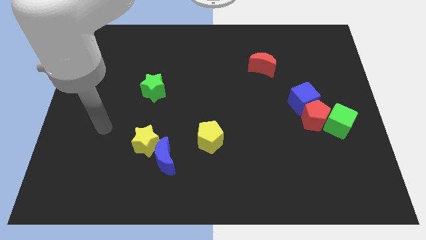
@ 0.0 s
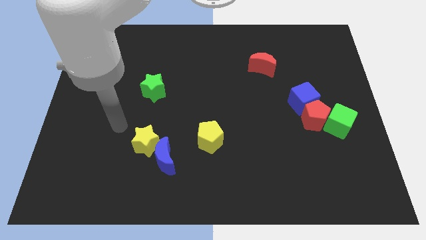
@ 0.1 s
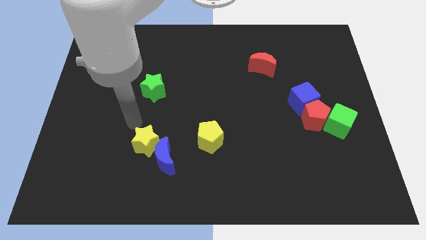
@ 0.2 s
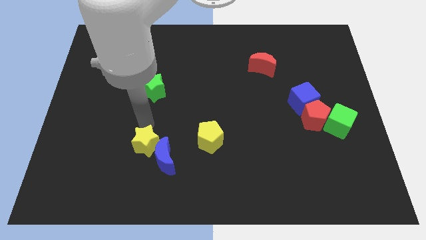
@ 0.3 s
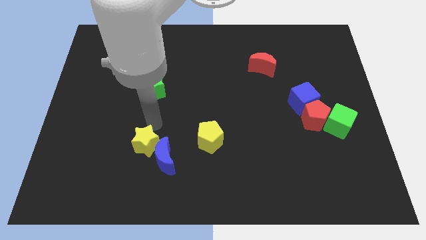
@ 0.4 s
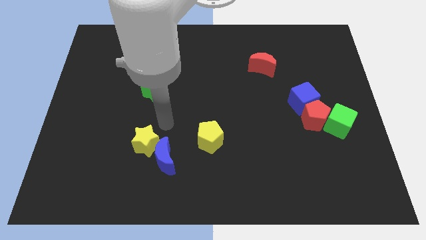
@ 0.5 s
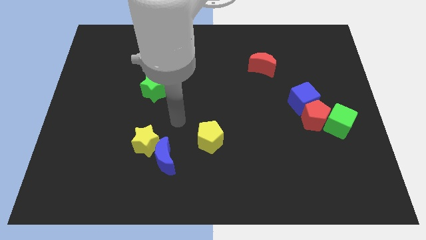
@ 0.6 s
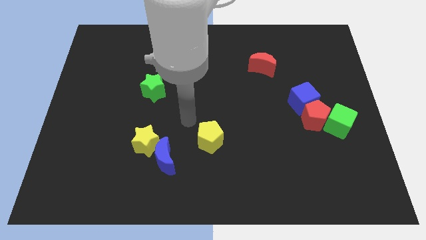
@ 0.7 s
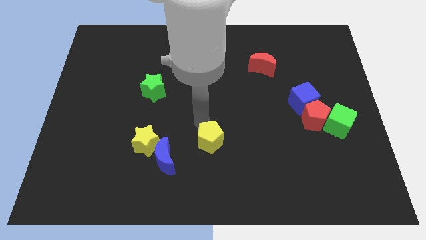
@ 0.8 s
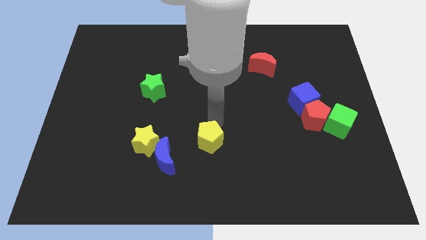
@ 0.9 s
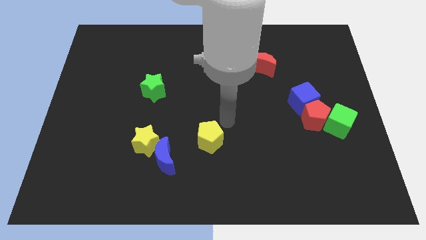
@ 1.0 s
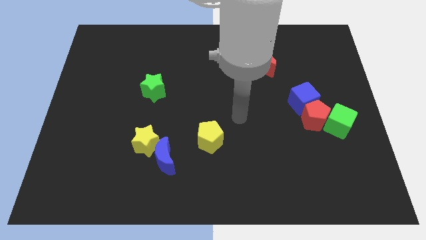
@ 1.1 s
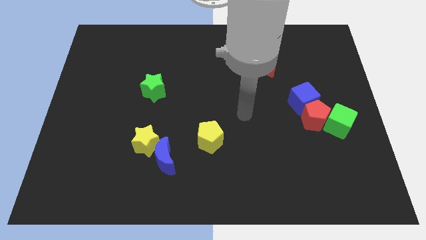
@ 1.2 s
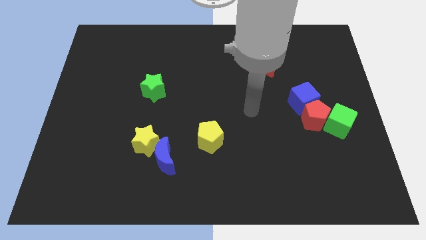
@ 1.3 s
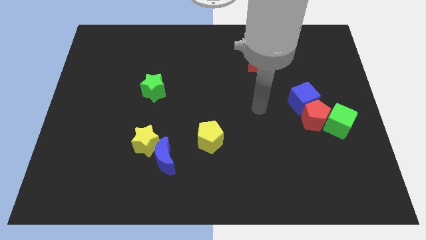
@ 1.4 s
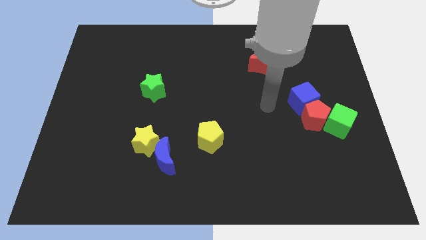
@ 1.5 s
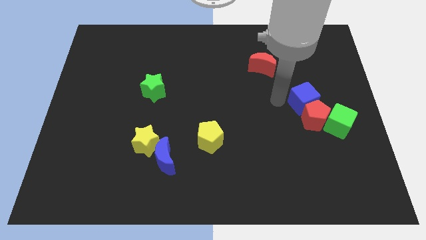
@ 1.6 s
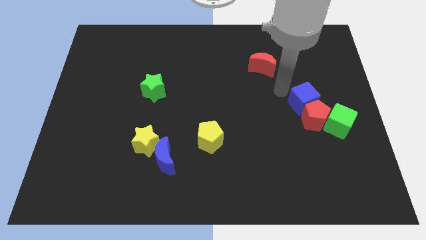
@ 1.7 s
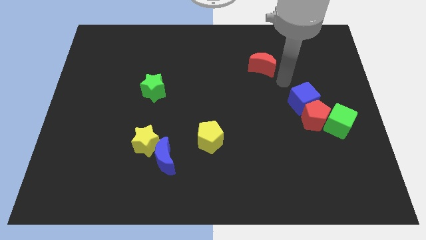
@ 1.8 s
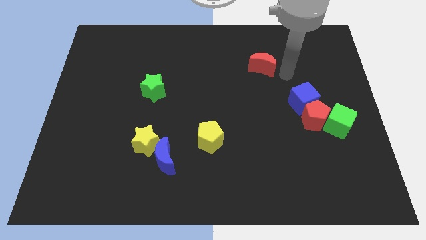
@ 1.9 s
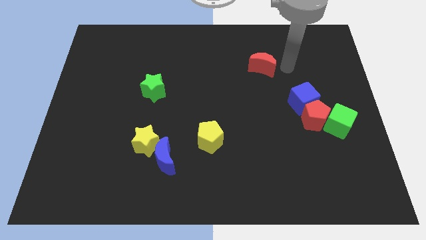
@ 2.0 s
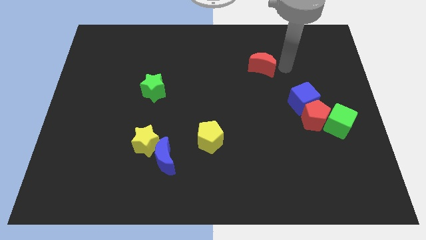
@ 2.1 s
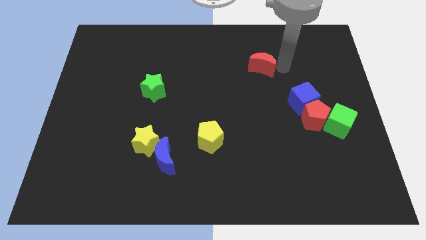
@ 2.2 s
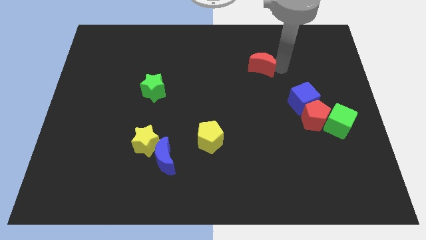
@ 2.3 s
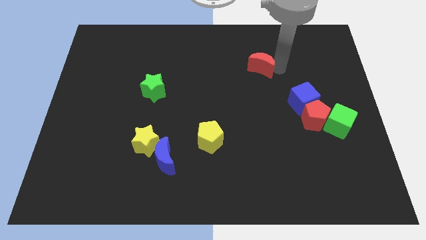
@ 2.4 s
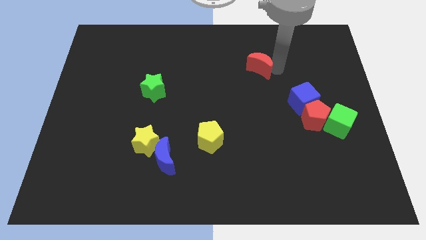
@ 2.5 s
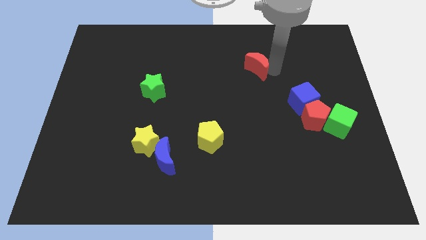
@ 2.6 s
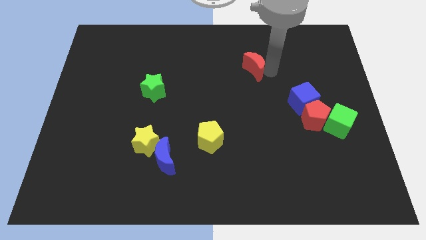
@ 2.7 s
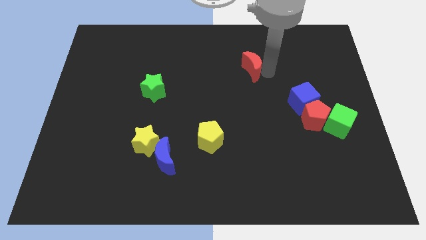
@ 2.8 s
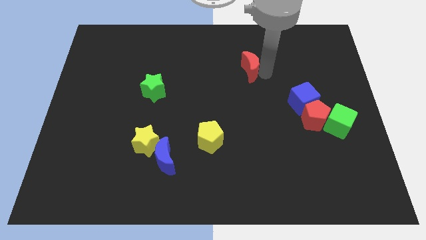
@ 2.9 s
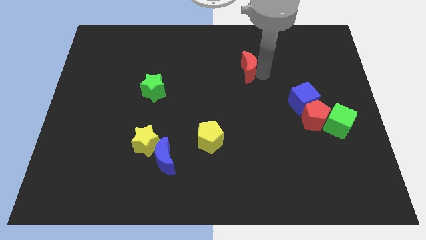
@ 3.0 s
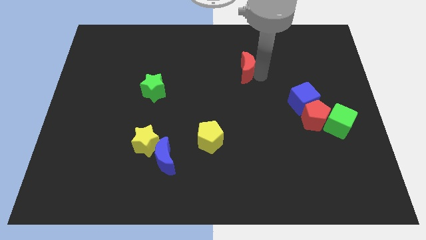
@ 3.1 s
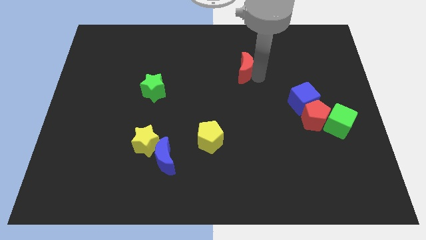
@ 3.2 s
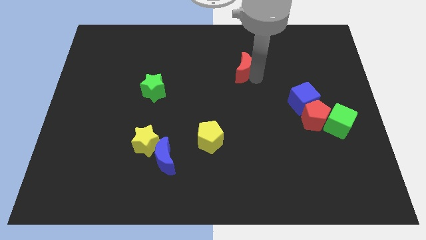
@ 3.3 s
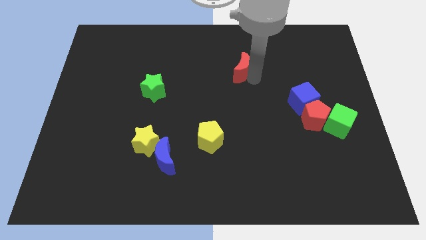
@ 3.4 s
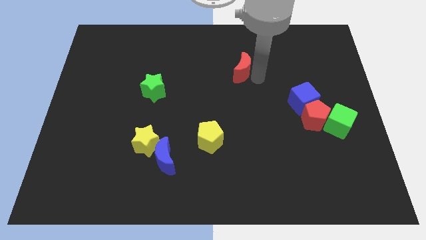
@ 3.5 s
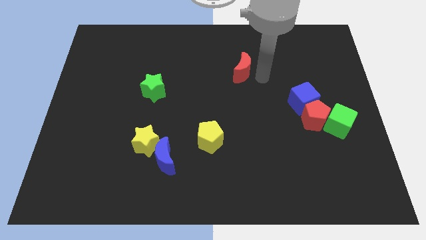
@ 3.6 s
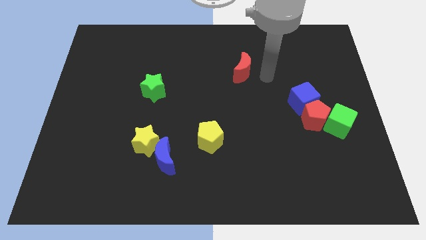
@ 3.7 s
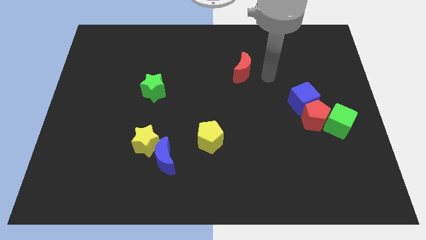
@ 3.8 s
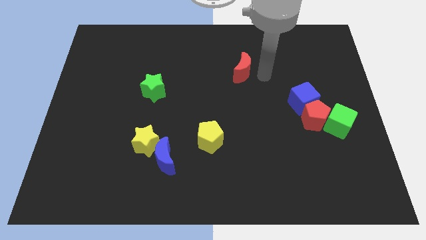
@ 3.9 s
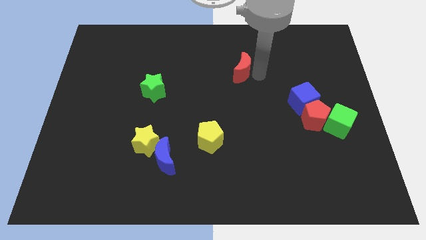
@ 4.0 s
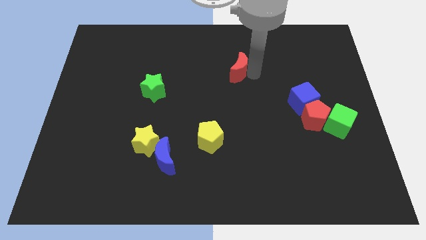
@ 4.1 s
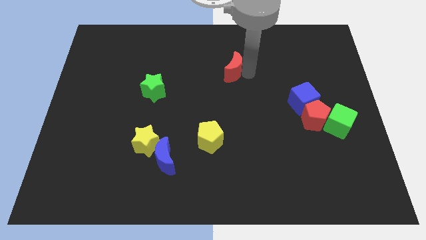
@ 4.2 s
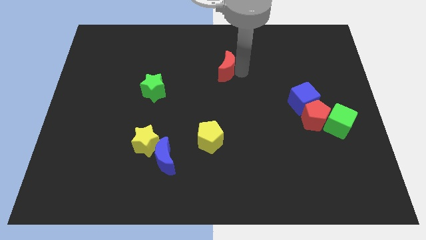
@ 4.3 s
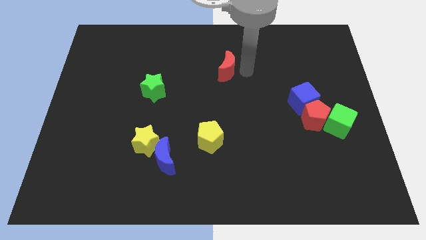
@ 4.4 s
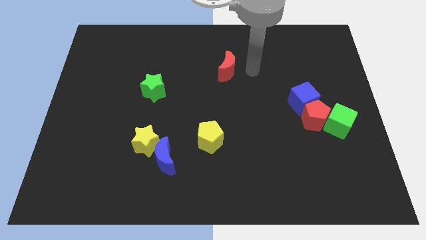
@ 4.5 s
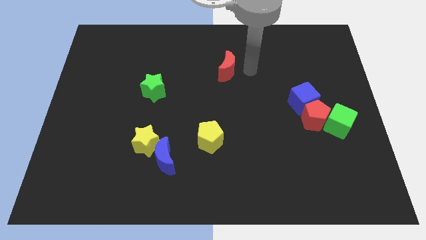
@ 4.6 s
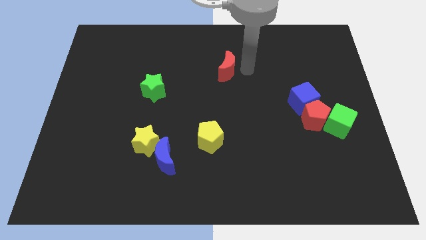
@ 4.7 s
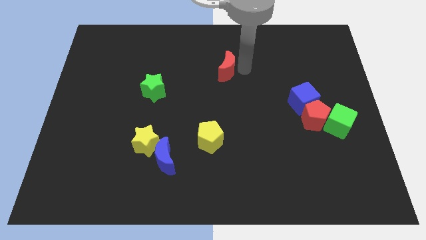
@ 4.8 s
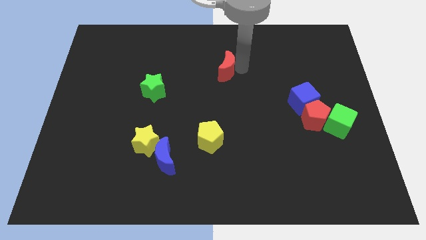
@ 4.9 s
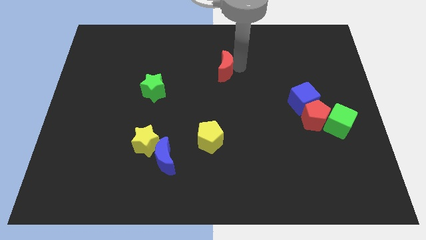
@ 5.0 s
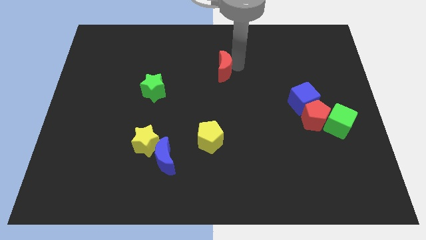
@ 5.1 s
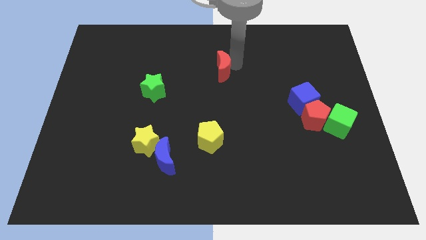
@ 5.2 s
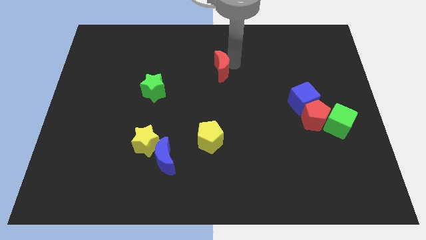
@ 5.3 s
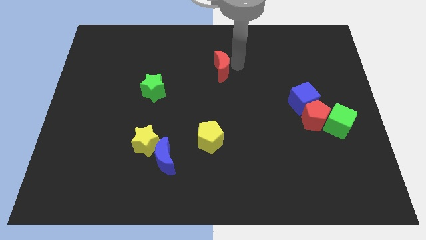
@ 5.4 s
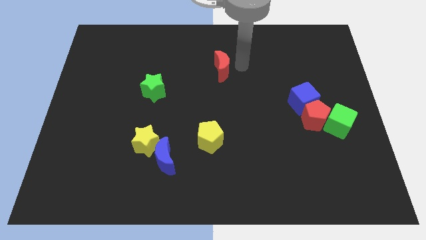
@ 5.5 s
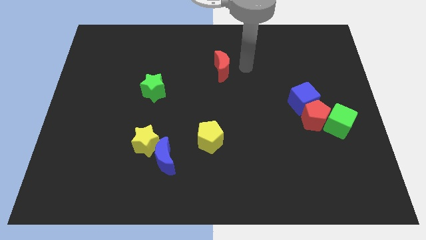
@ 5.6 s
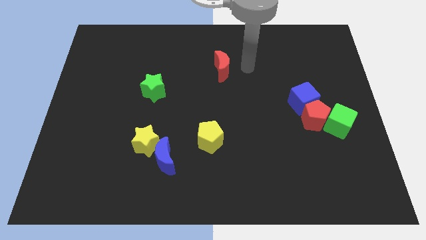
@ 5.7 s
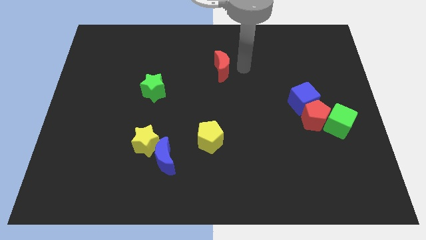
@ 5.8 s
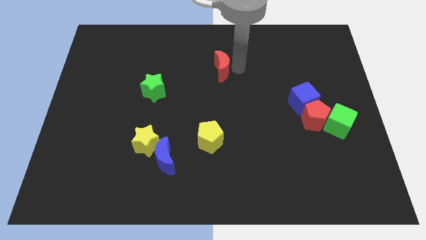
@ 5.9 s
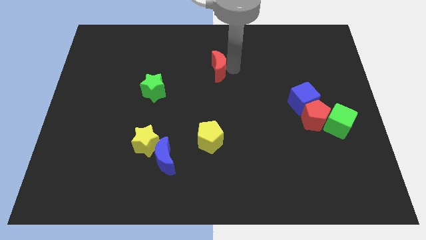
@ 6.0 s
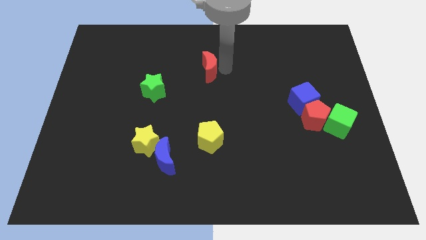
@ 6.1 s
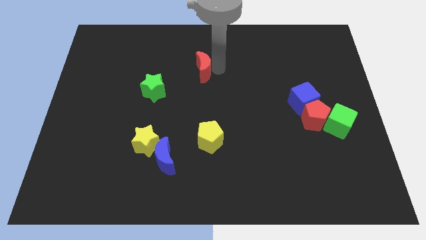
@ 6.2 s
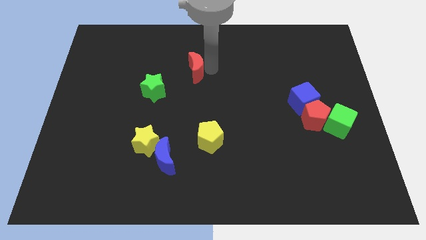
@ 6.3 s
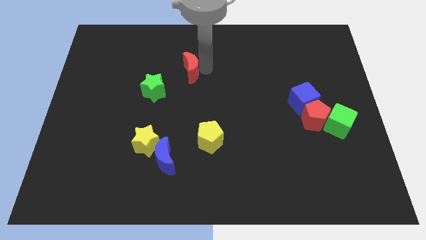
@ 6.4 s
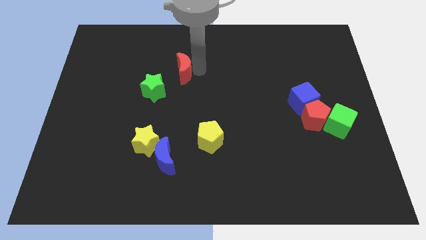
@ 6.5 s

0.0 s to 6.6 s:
slide the red moon to the left

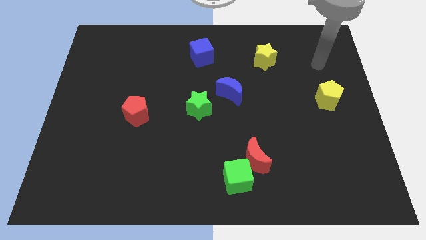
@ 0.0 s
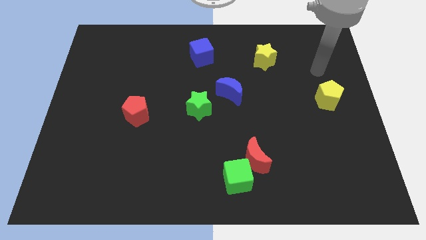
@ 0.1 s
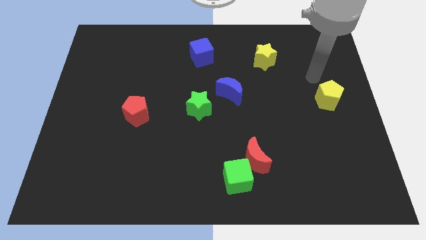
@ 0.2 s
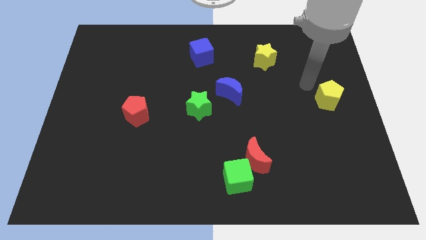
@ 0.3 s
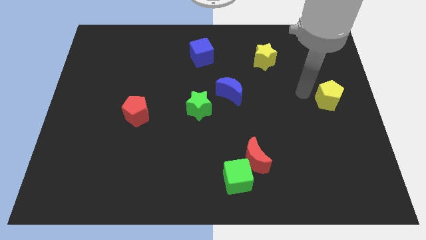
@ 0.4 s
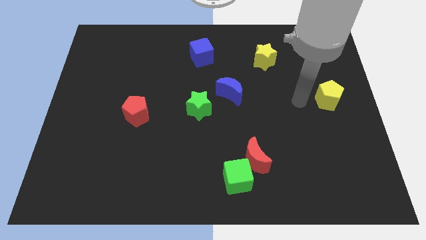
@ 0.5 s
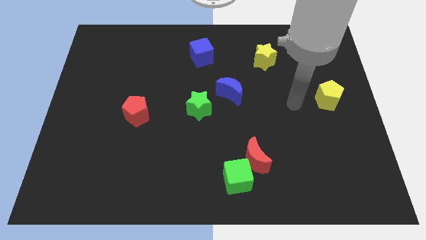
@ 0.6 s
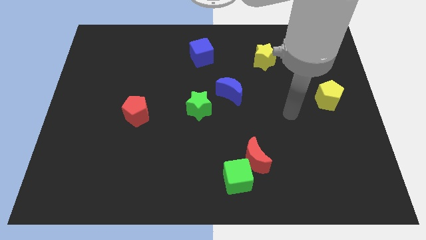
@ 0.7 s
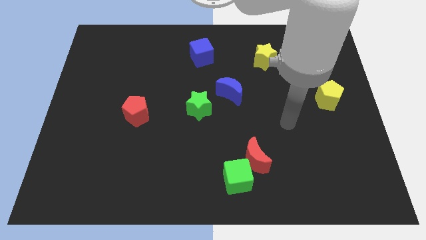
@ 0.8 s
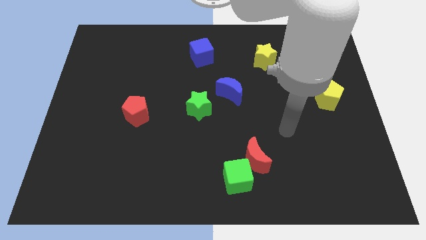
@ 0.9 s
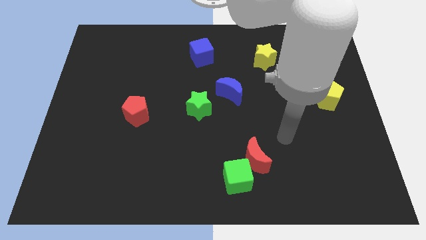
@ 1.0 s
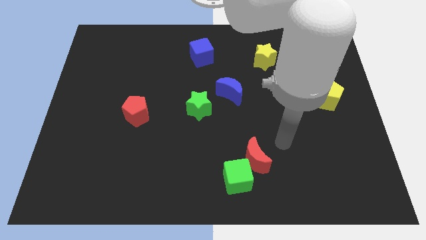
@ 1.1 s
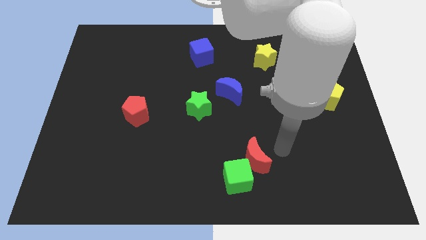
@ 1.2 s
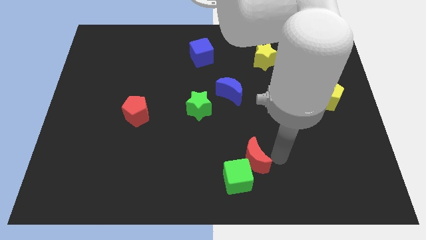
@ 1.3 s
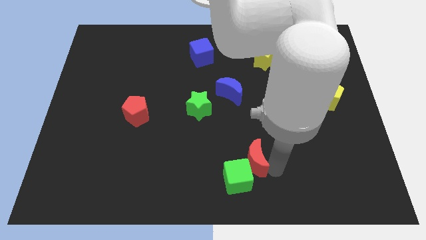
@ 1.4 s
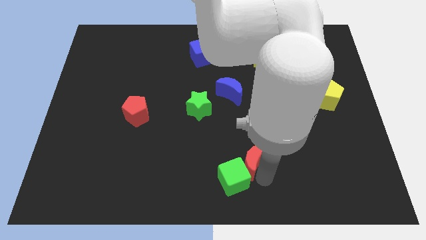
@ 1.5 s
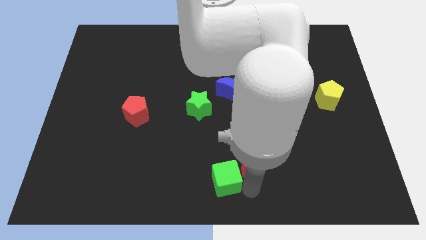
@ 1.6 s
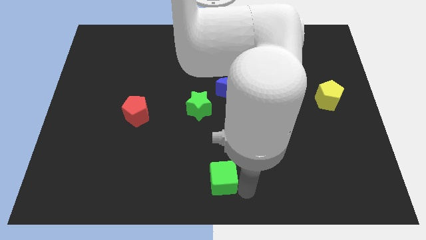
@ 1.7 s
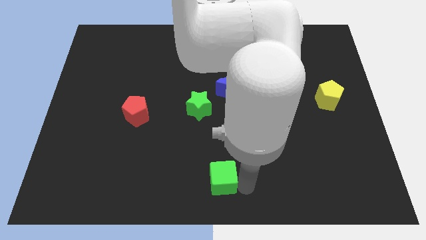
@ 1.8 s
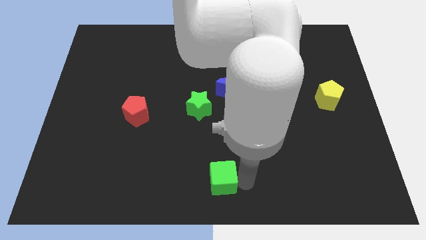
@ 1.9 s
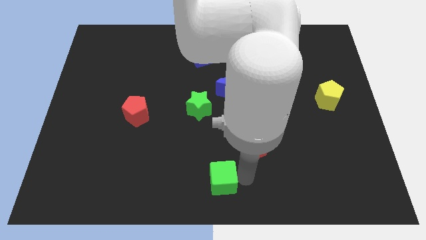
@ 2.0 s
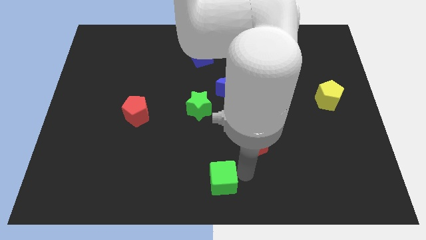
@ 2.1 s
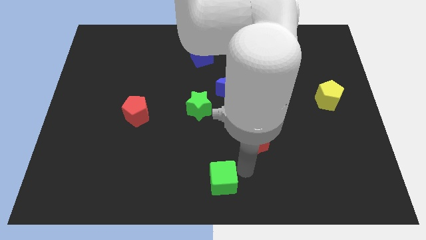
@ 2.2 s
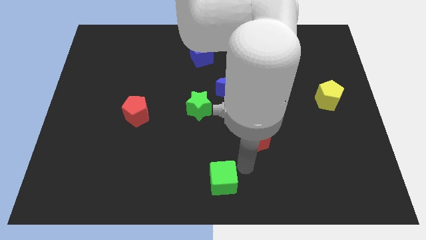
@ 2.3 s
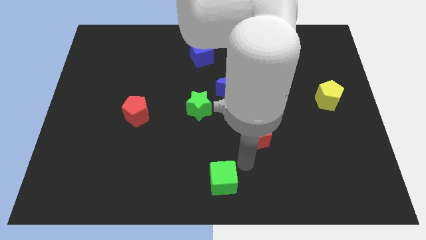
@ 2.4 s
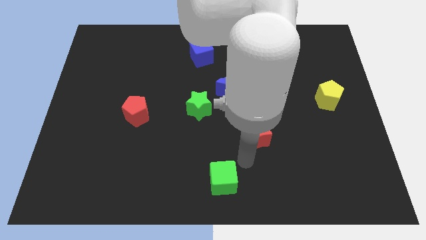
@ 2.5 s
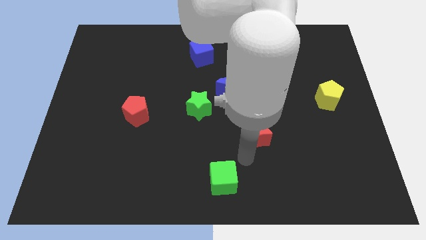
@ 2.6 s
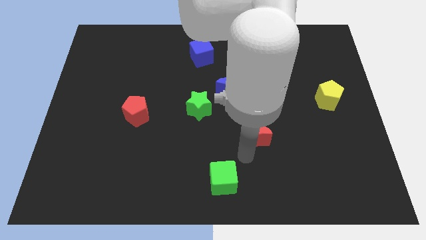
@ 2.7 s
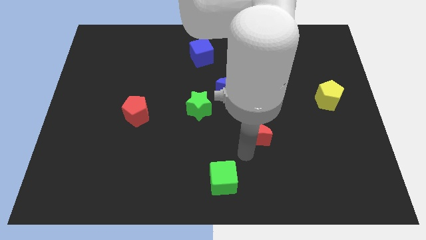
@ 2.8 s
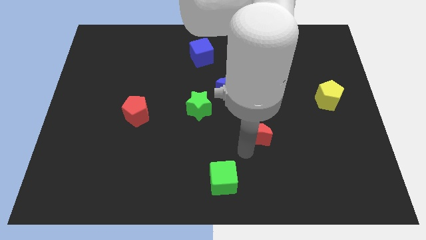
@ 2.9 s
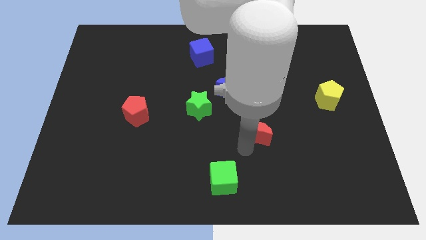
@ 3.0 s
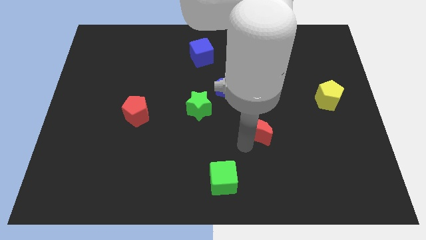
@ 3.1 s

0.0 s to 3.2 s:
move the red moon a bit up
